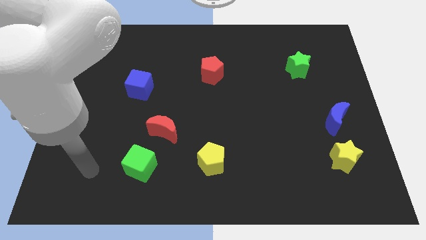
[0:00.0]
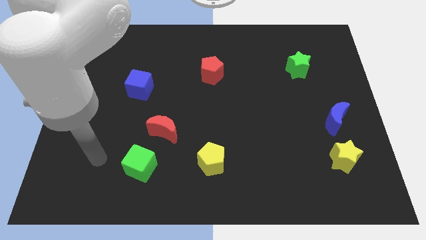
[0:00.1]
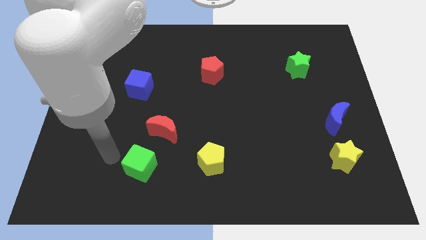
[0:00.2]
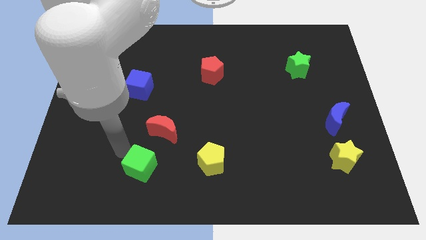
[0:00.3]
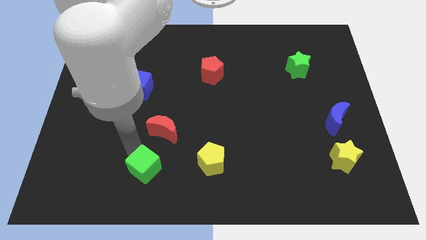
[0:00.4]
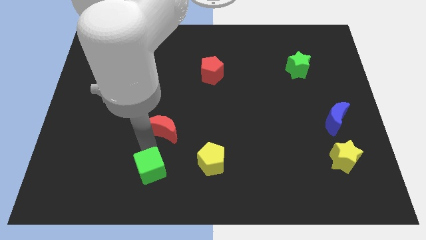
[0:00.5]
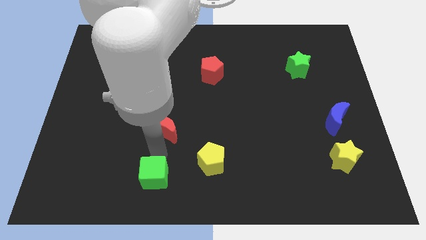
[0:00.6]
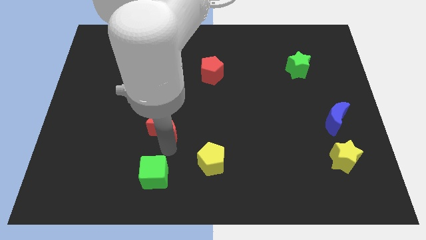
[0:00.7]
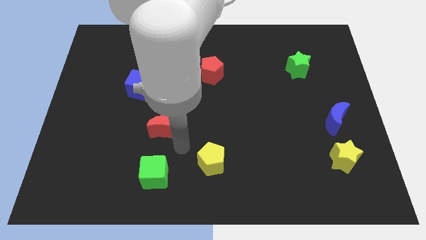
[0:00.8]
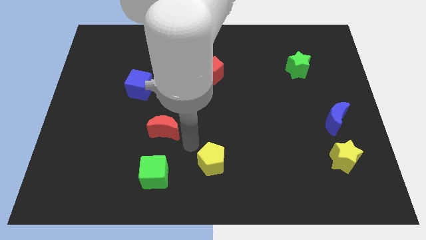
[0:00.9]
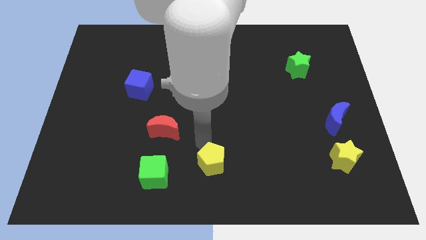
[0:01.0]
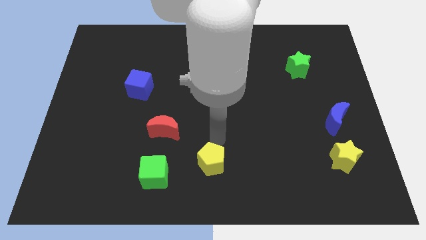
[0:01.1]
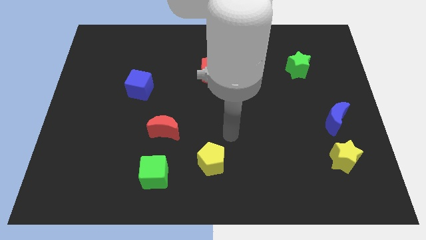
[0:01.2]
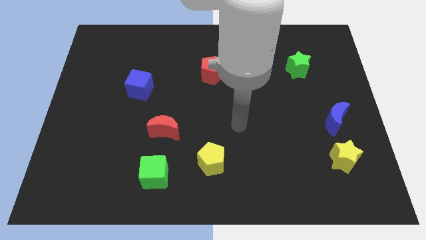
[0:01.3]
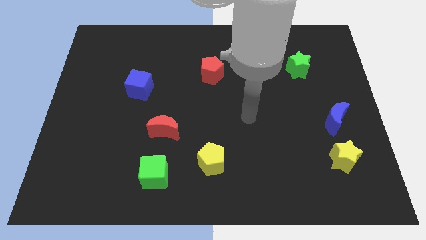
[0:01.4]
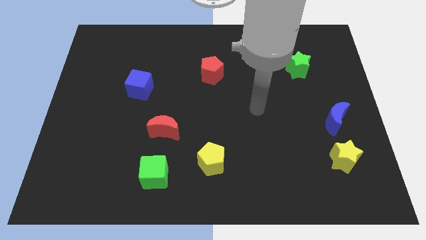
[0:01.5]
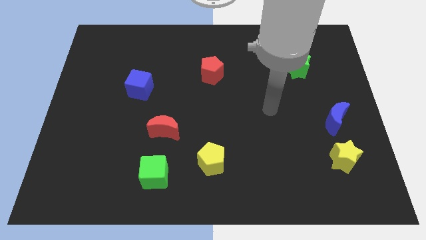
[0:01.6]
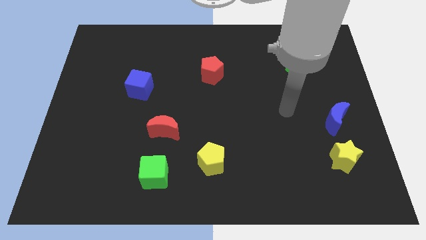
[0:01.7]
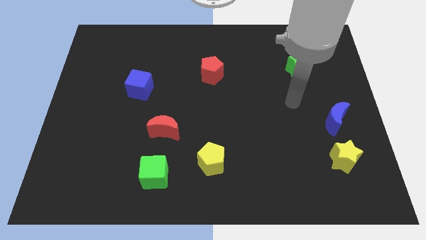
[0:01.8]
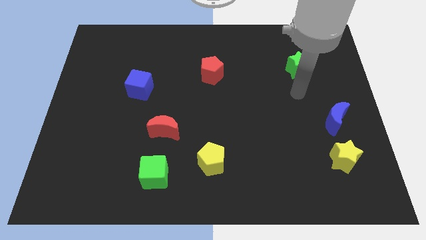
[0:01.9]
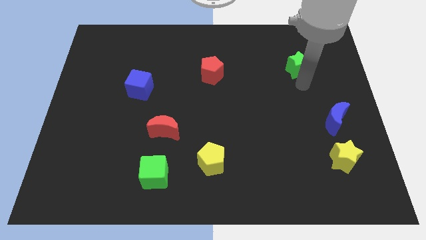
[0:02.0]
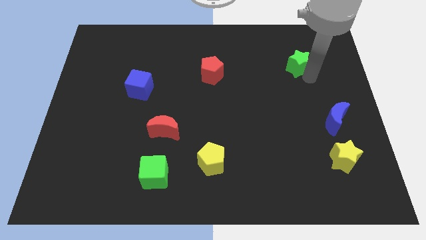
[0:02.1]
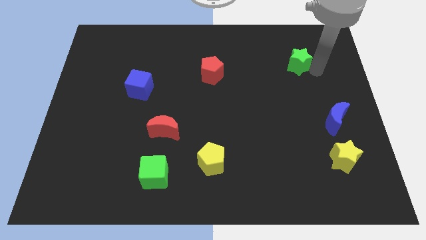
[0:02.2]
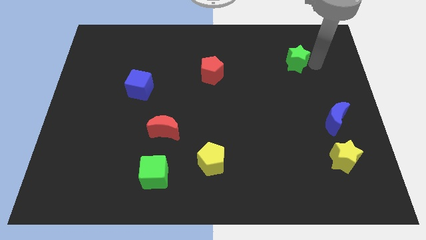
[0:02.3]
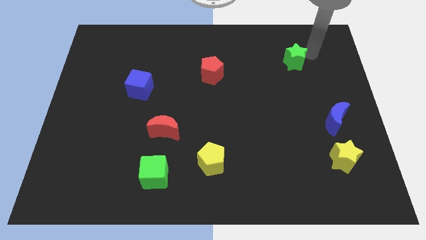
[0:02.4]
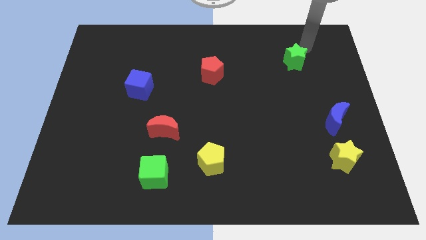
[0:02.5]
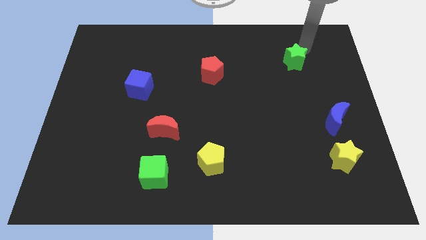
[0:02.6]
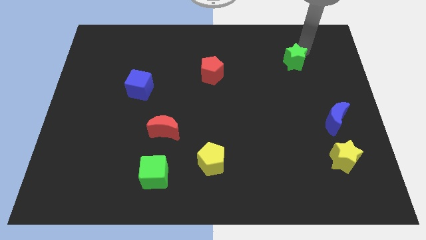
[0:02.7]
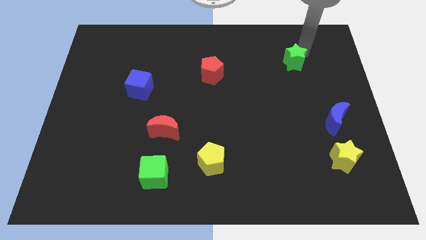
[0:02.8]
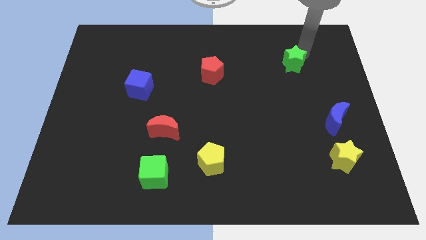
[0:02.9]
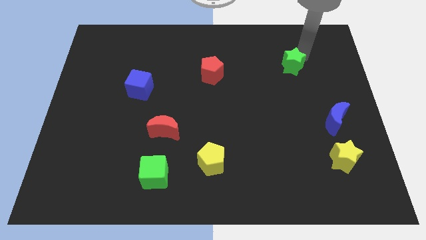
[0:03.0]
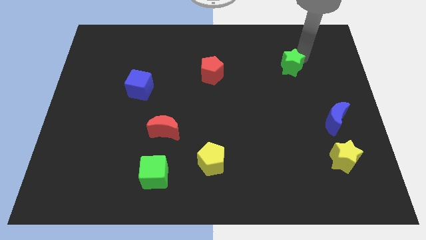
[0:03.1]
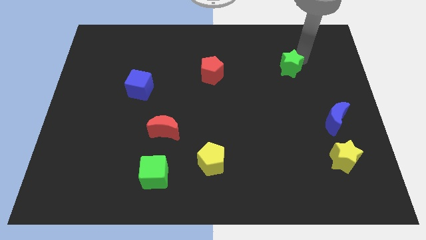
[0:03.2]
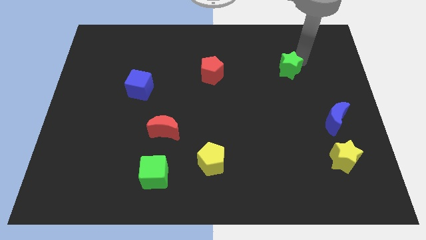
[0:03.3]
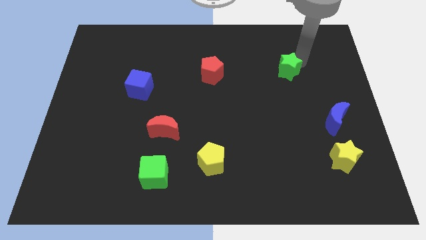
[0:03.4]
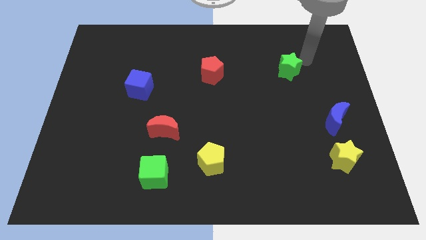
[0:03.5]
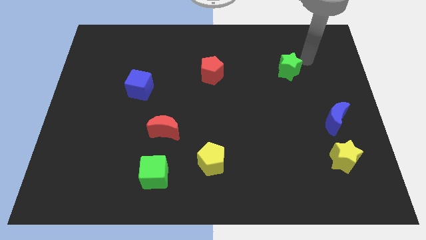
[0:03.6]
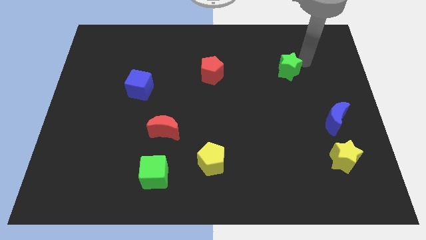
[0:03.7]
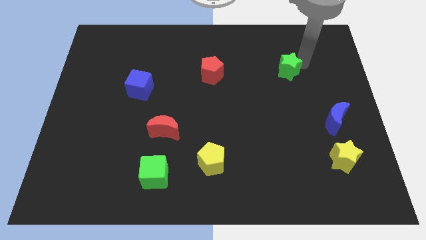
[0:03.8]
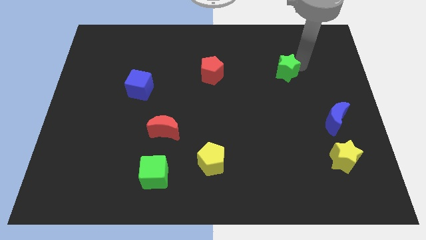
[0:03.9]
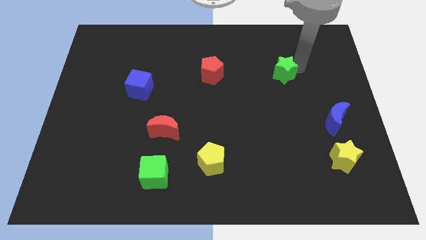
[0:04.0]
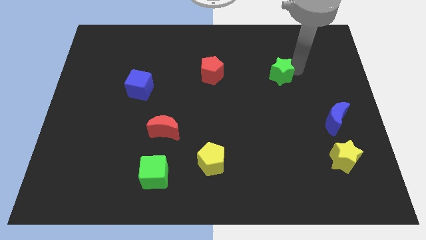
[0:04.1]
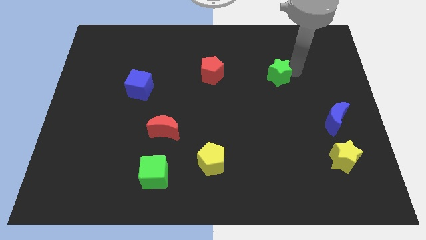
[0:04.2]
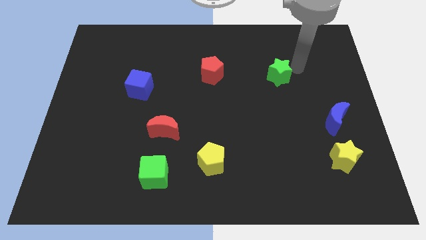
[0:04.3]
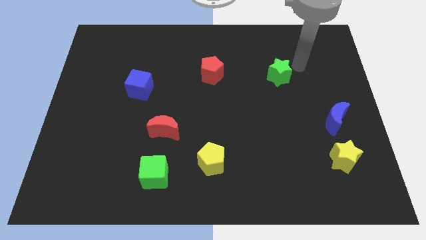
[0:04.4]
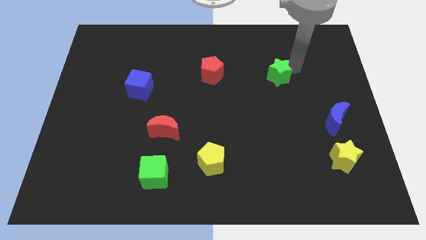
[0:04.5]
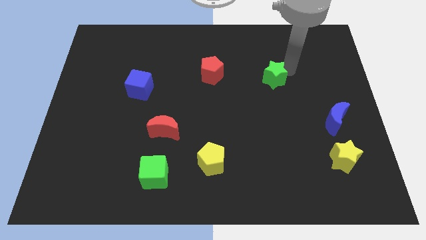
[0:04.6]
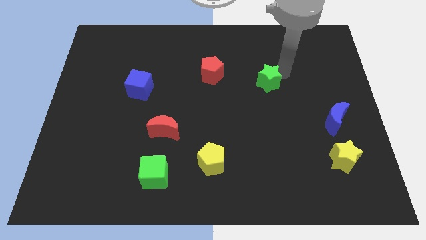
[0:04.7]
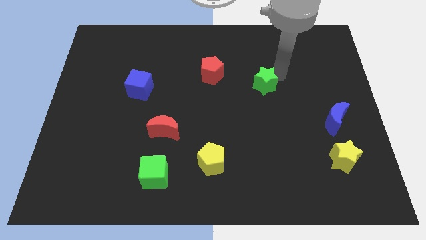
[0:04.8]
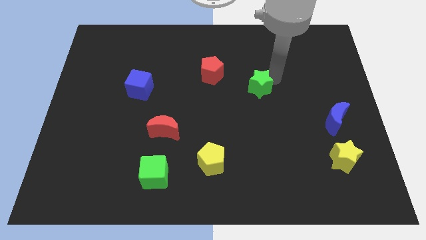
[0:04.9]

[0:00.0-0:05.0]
slide the green star to the middle

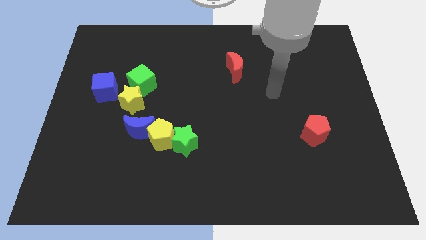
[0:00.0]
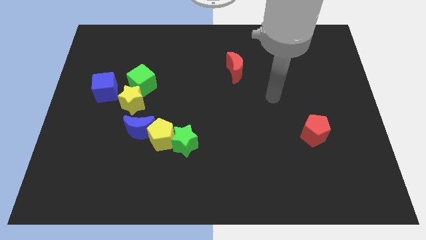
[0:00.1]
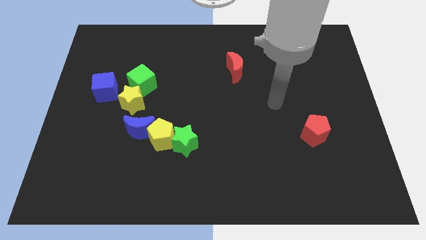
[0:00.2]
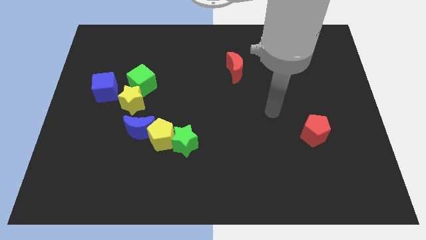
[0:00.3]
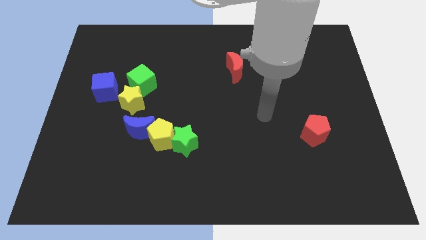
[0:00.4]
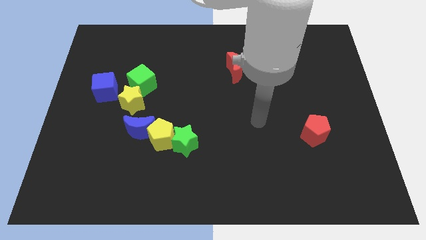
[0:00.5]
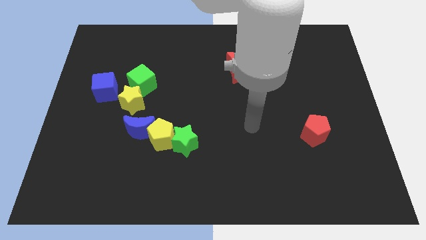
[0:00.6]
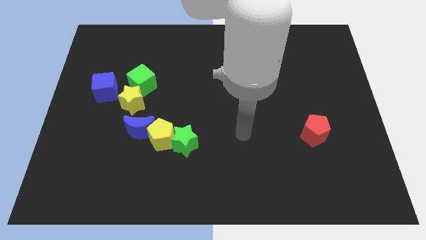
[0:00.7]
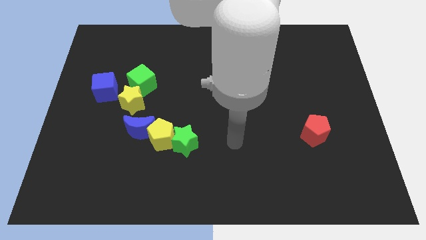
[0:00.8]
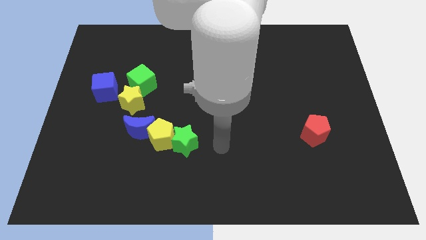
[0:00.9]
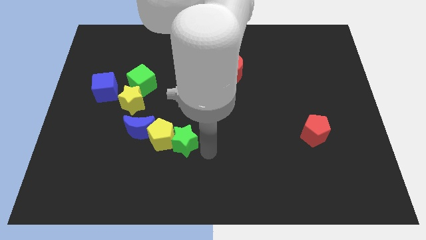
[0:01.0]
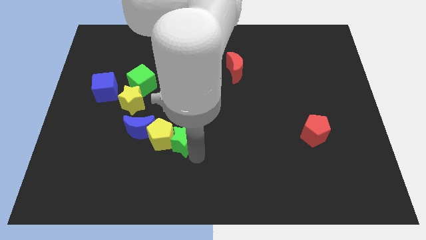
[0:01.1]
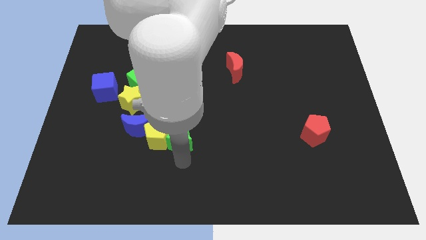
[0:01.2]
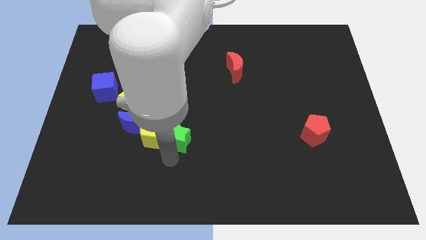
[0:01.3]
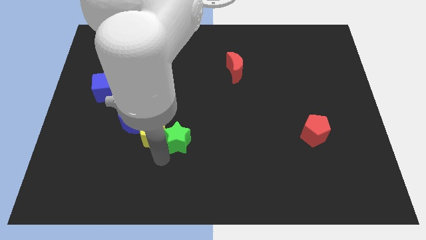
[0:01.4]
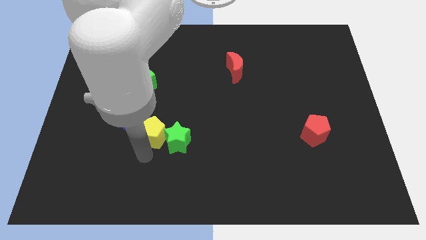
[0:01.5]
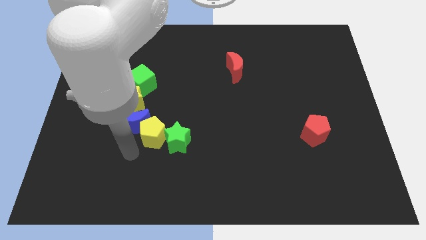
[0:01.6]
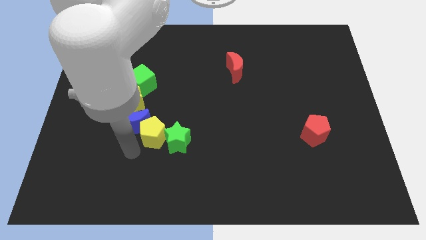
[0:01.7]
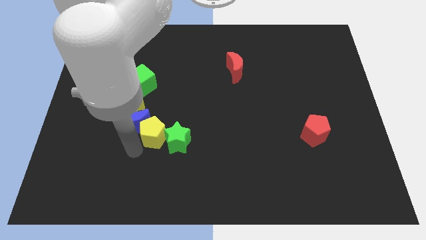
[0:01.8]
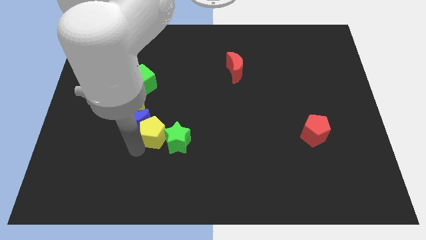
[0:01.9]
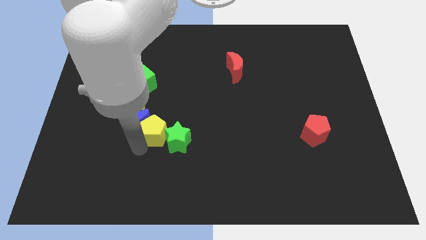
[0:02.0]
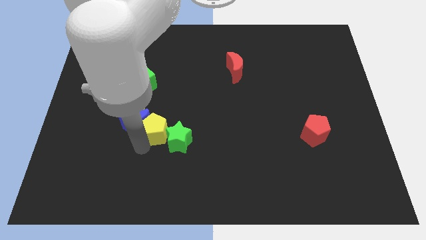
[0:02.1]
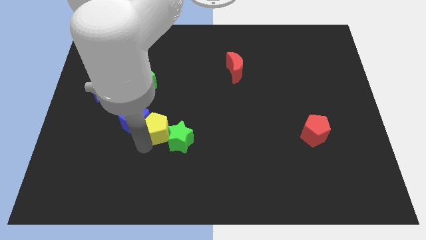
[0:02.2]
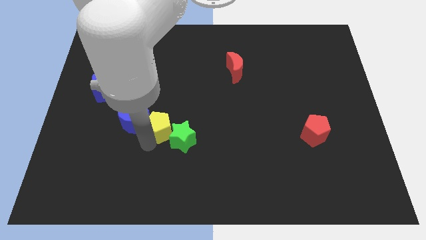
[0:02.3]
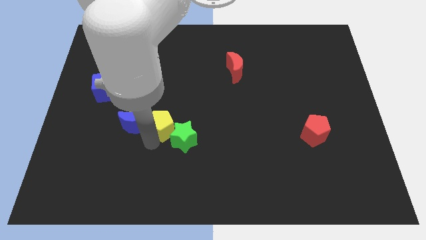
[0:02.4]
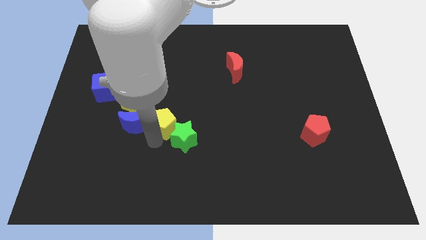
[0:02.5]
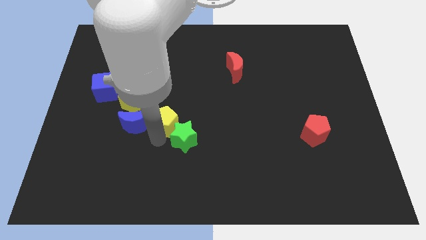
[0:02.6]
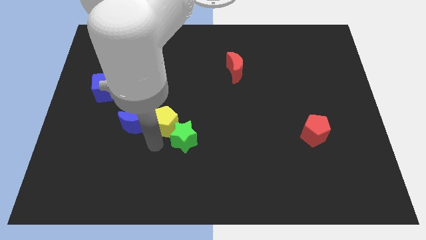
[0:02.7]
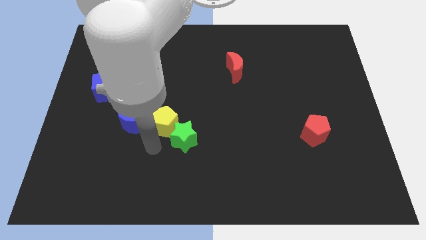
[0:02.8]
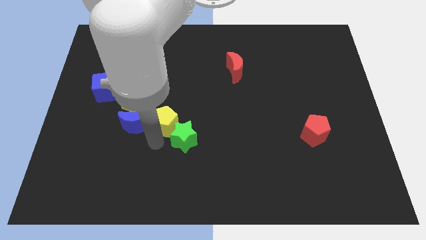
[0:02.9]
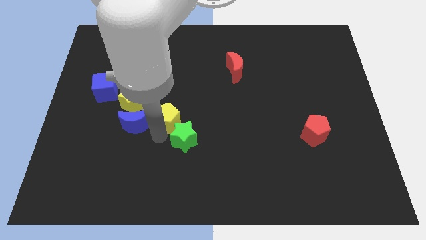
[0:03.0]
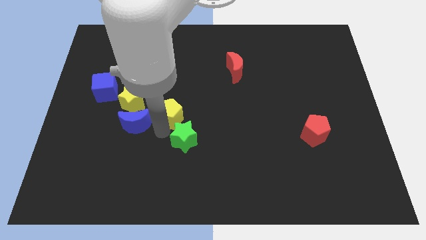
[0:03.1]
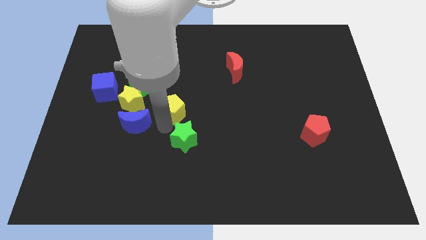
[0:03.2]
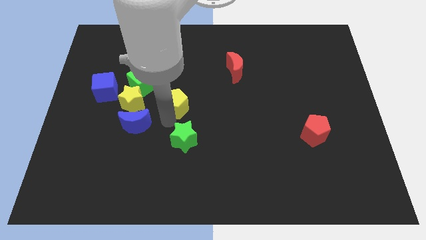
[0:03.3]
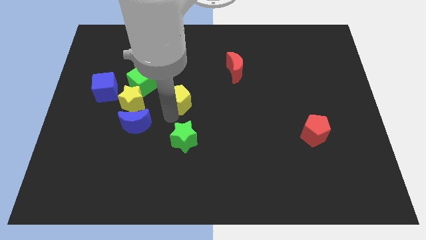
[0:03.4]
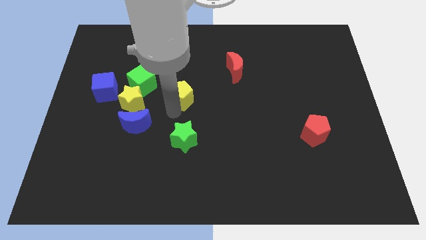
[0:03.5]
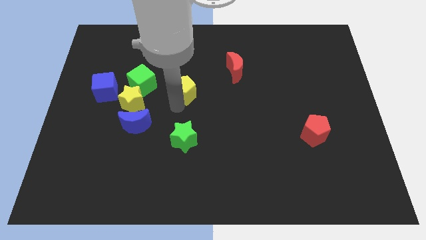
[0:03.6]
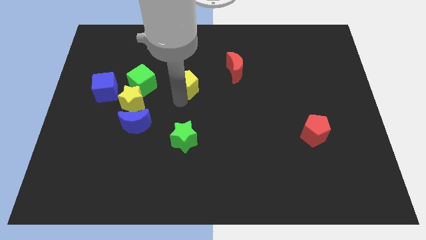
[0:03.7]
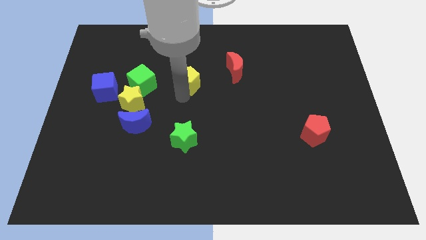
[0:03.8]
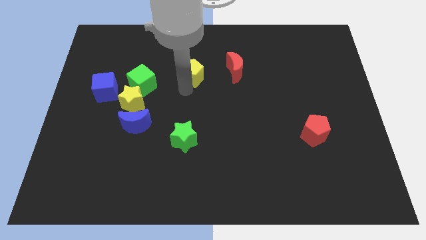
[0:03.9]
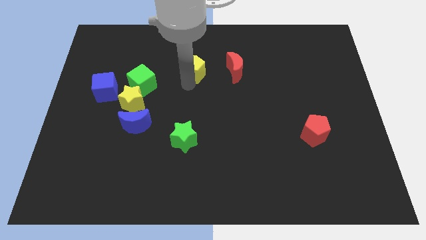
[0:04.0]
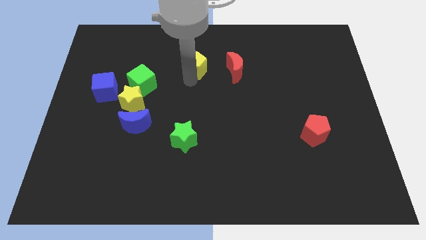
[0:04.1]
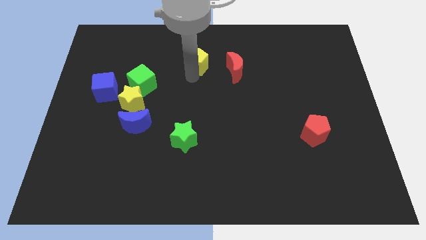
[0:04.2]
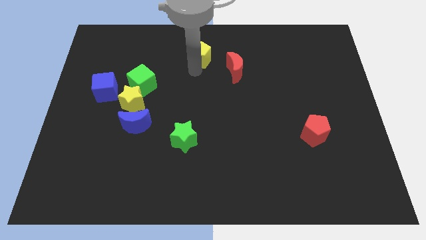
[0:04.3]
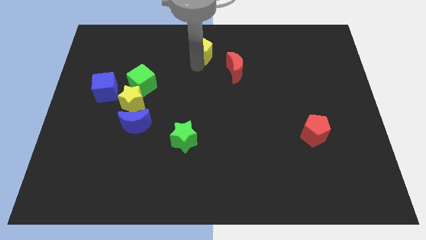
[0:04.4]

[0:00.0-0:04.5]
move the yellow pentagon to the towards your base
